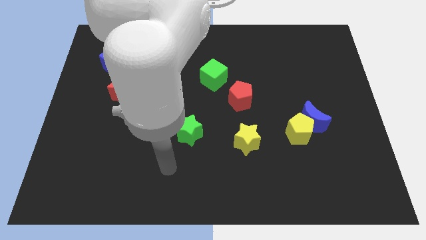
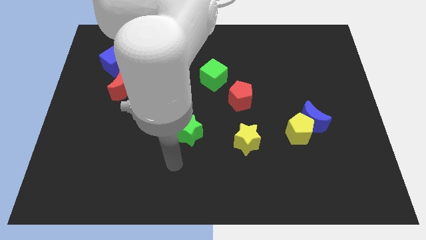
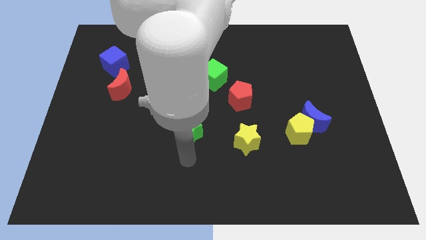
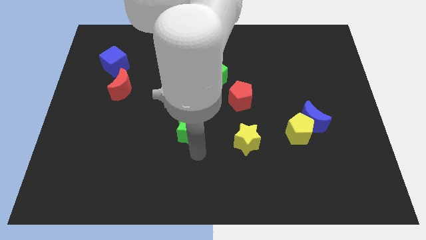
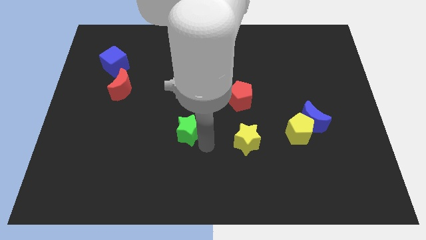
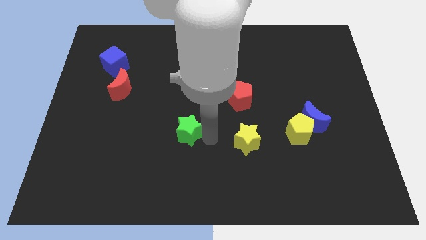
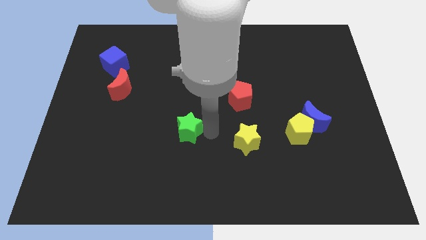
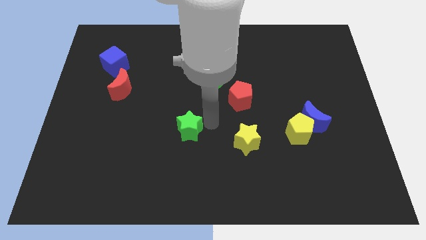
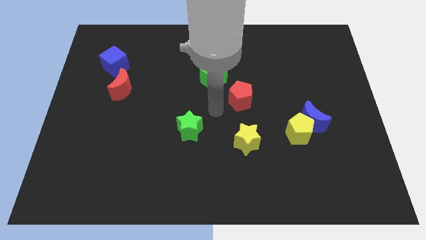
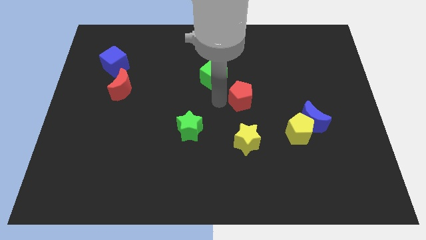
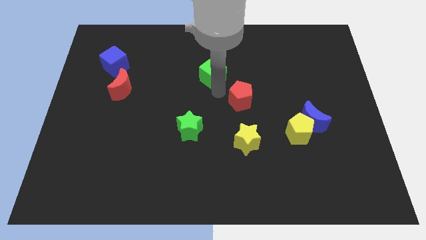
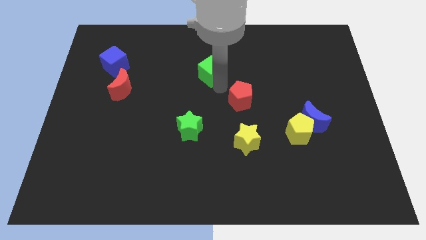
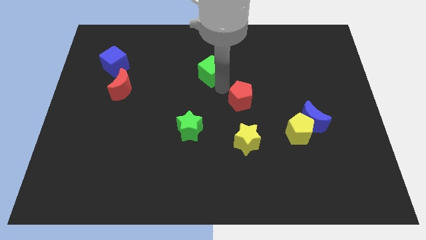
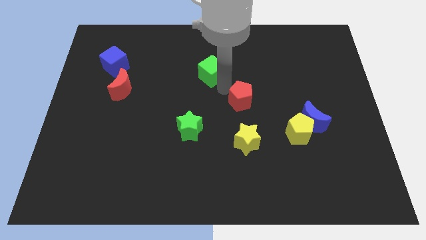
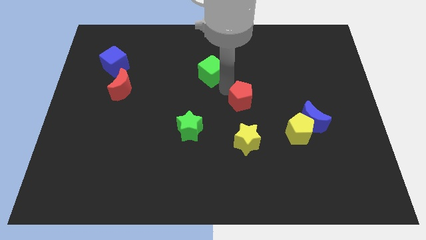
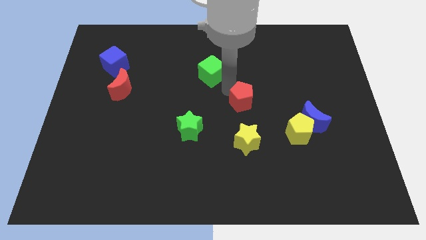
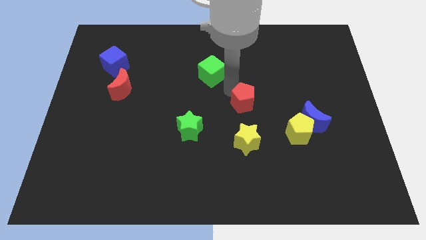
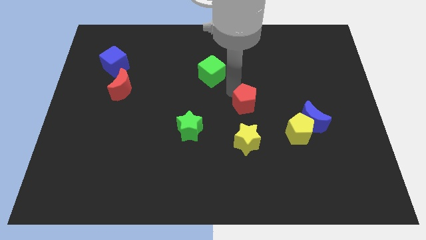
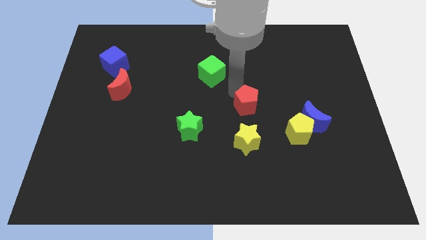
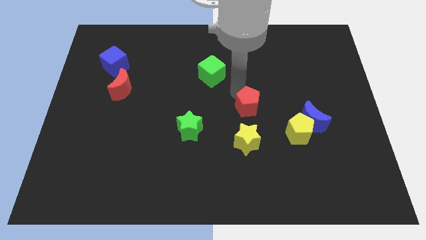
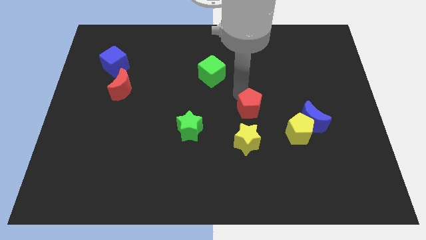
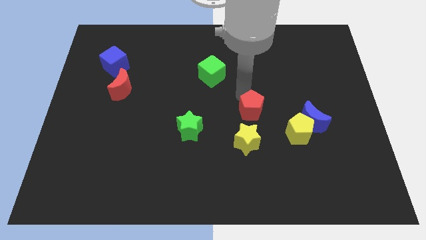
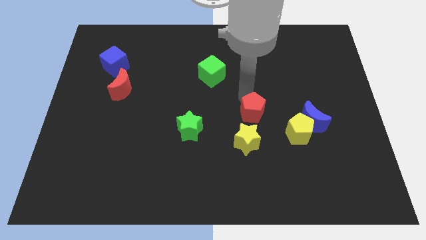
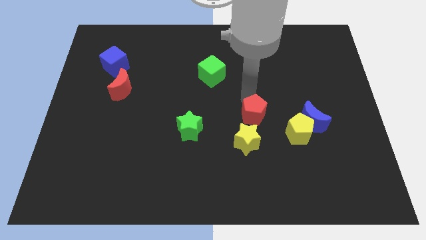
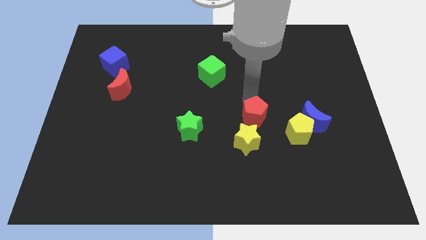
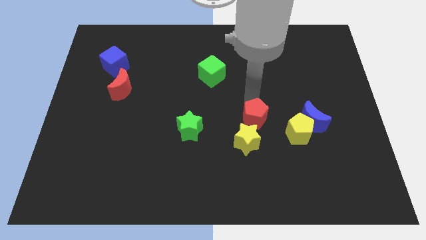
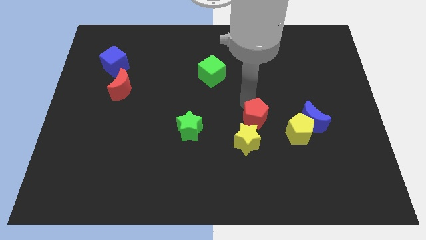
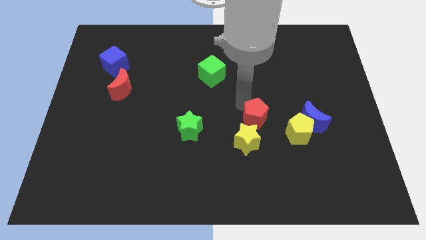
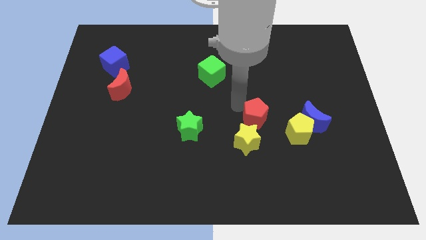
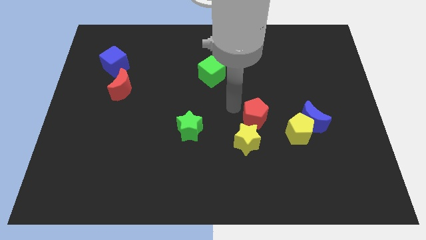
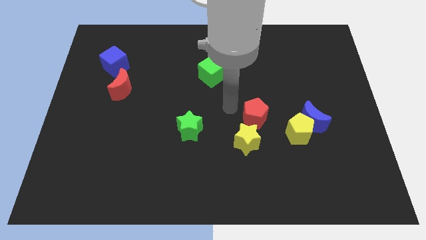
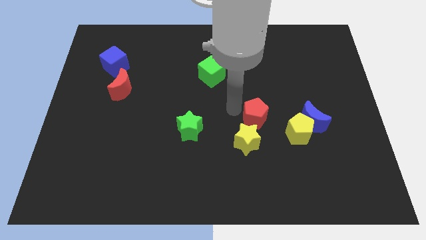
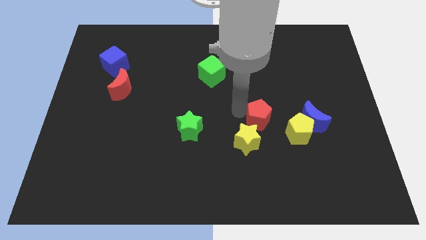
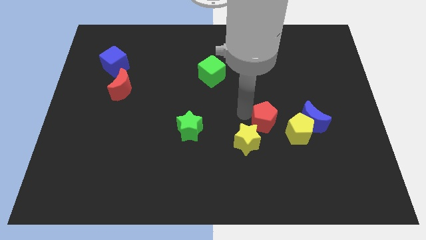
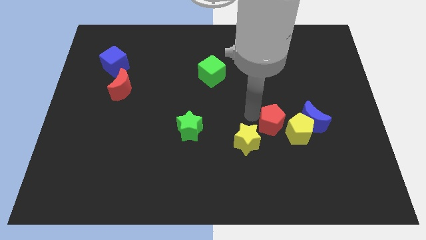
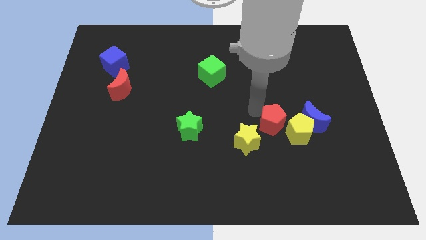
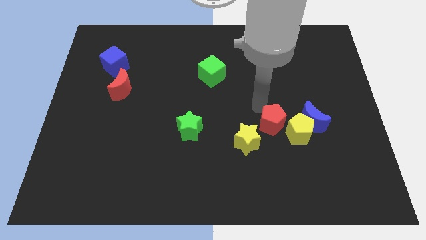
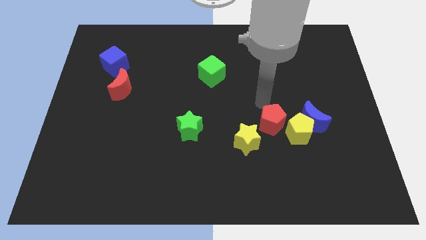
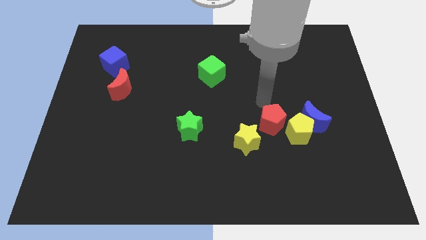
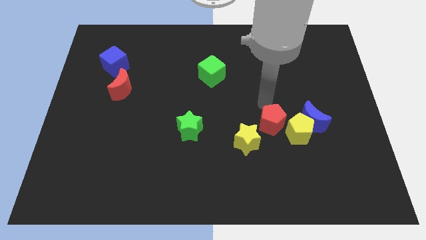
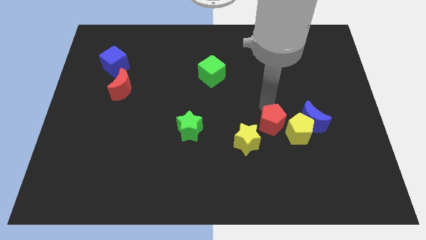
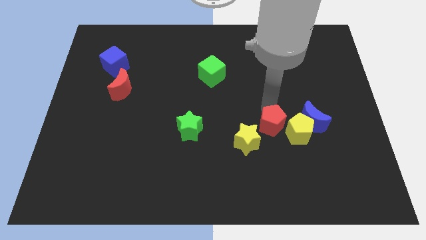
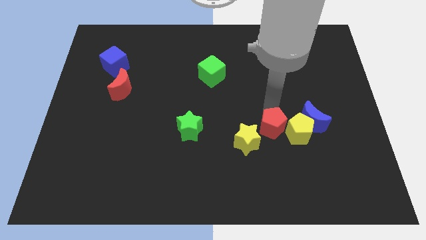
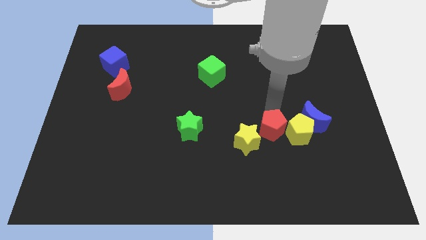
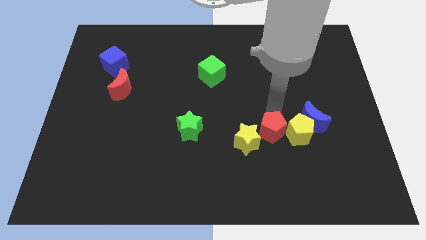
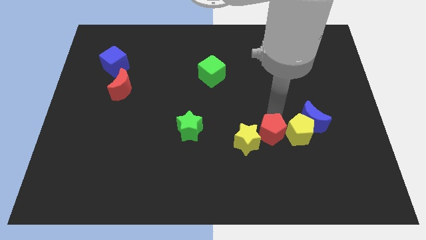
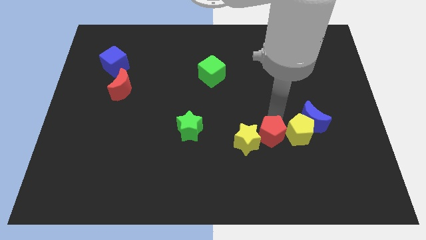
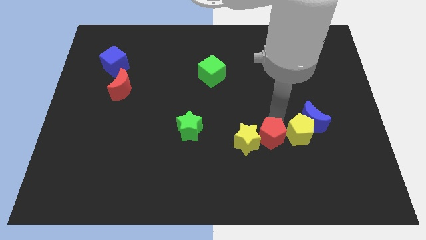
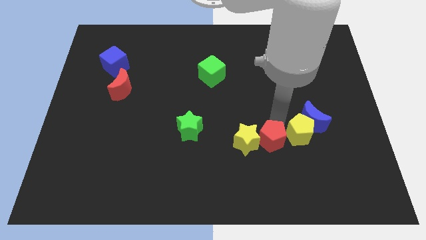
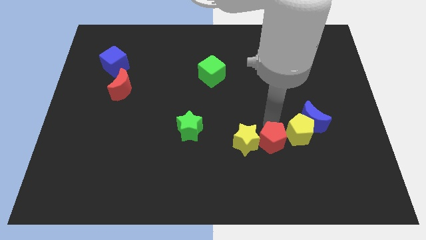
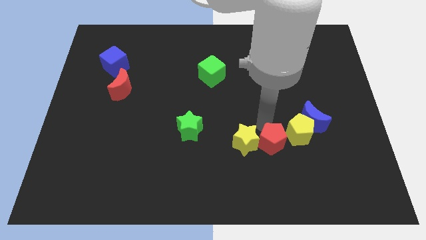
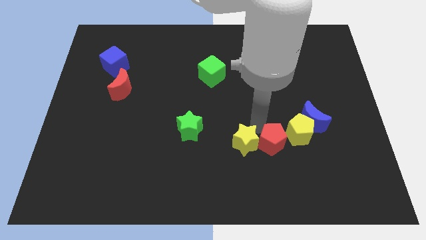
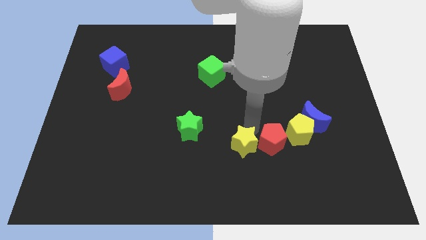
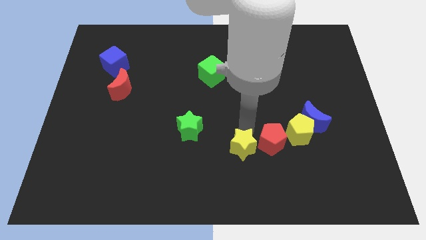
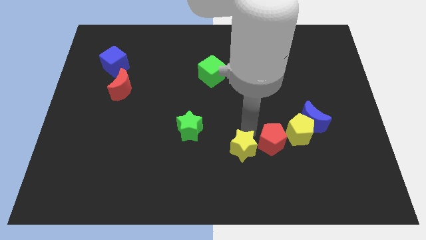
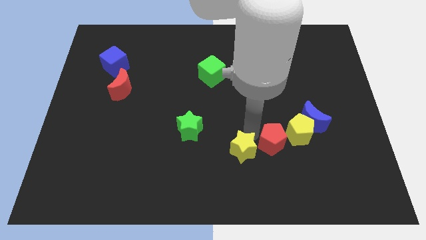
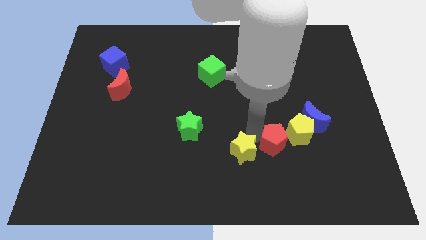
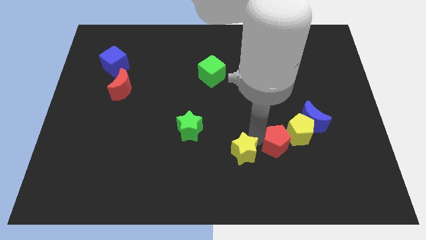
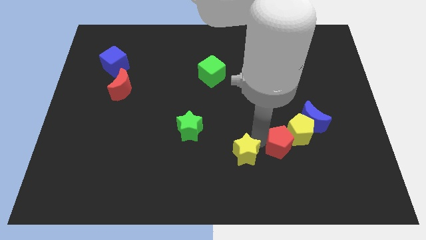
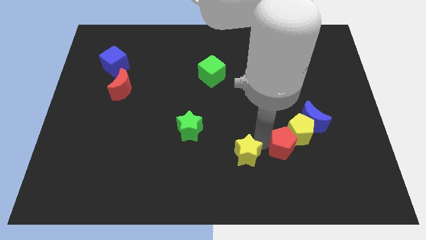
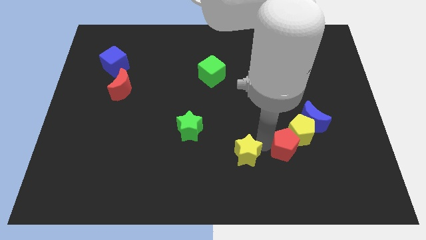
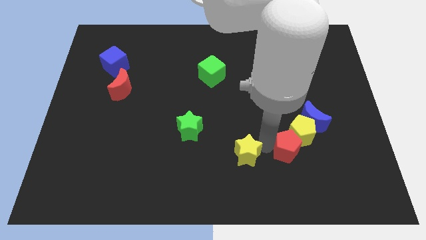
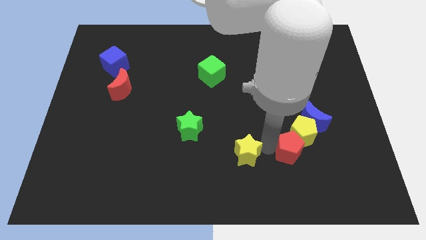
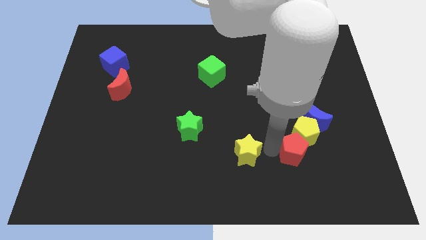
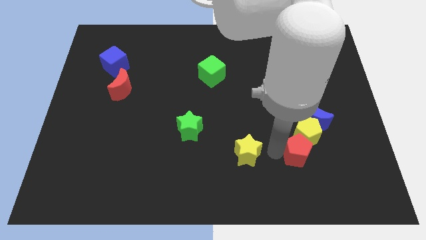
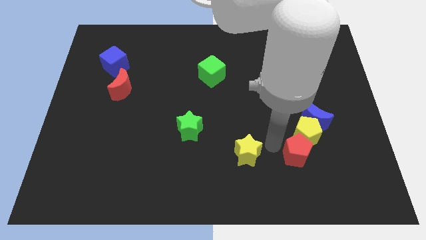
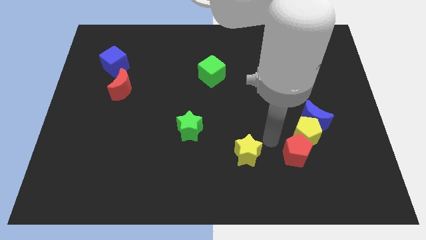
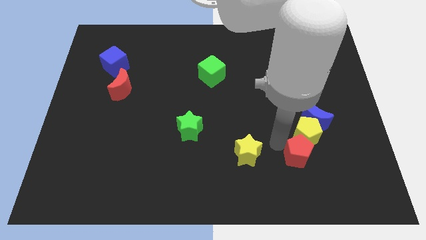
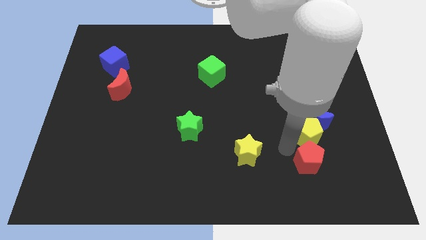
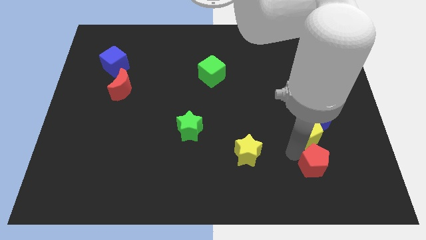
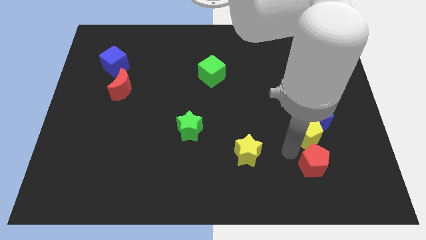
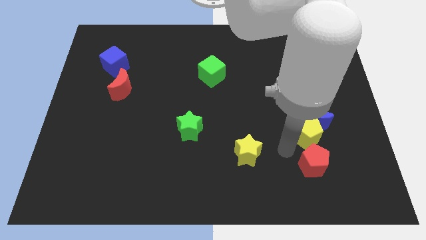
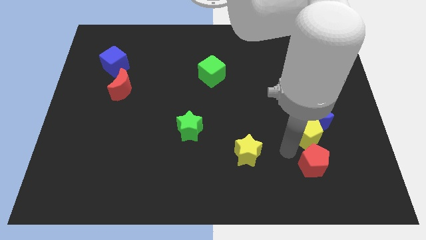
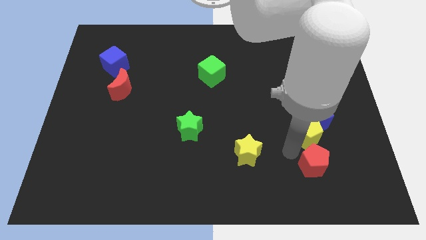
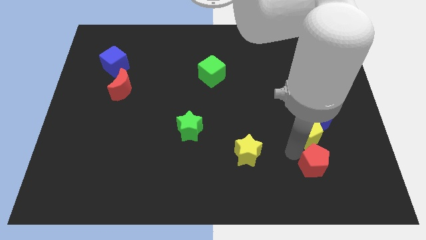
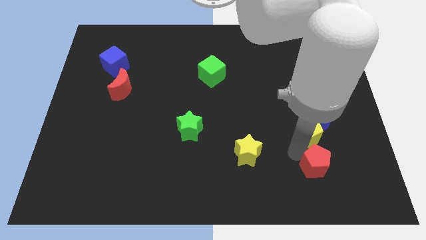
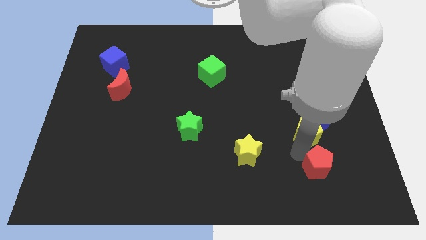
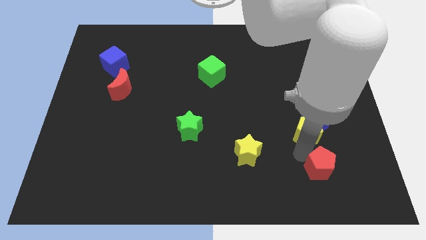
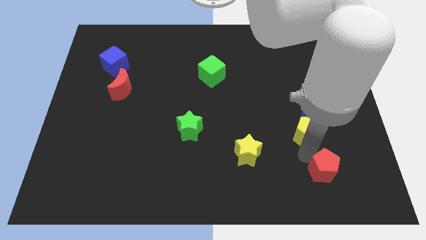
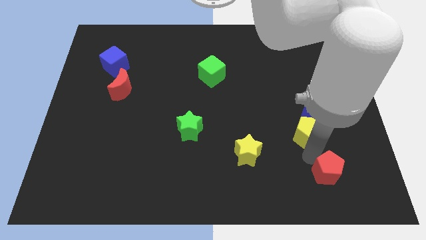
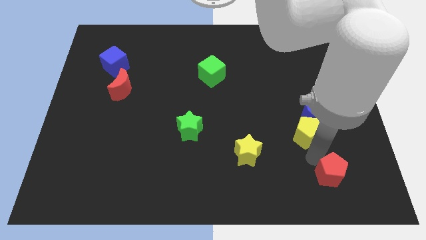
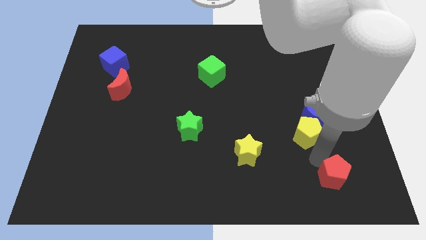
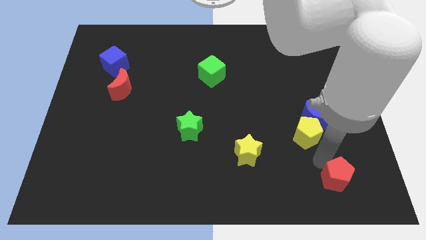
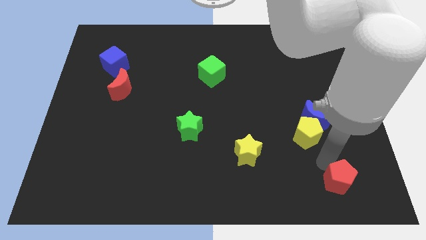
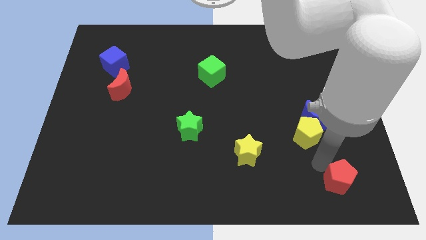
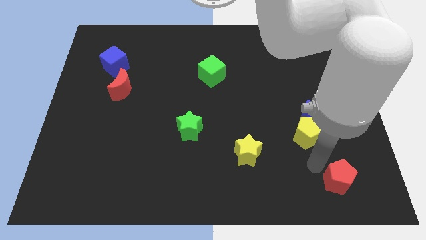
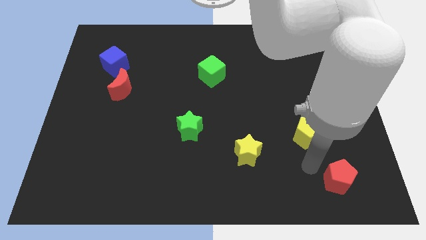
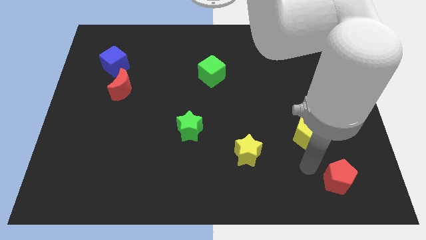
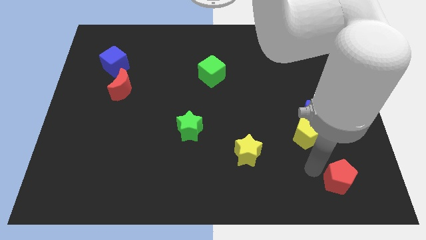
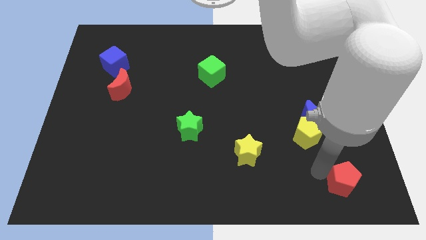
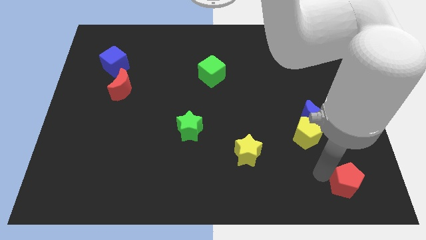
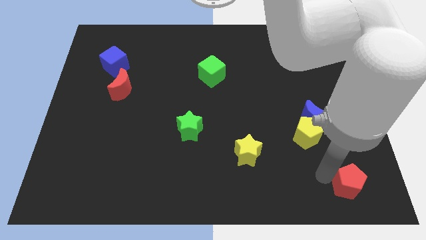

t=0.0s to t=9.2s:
move the red pentagon to the bottom right corner
